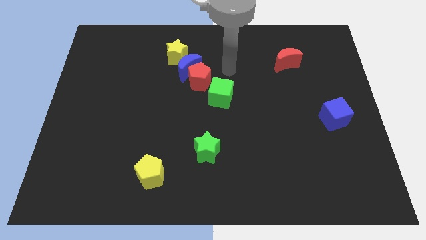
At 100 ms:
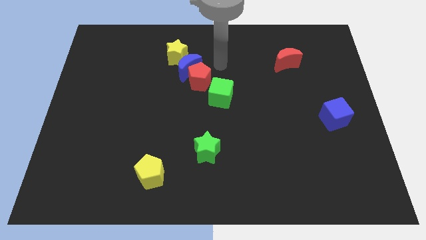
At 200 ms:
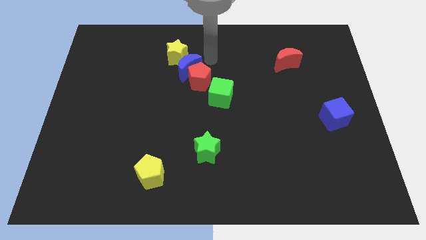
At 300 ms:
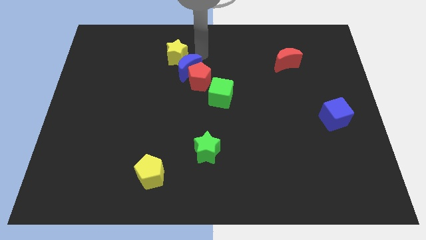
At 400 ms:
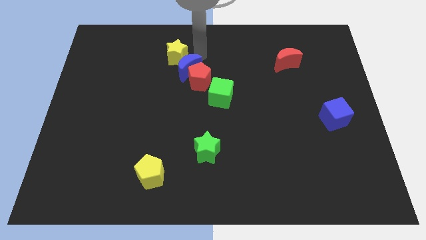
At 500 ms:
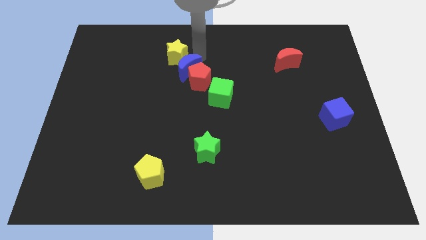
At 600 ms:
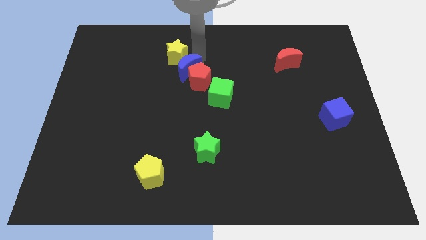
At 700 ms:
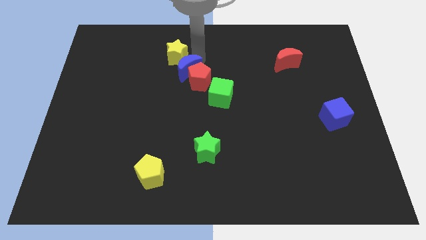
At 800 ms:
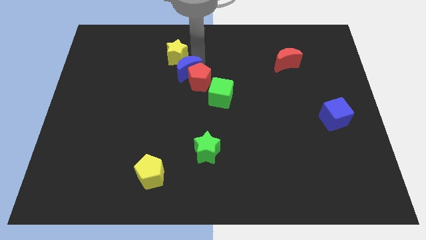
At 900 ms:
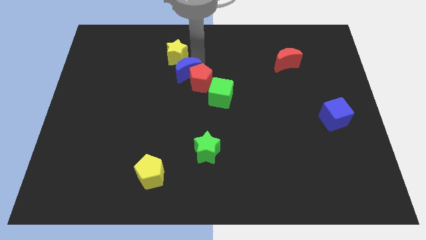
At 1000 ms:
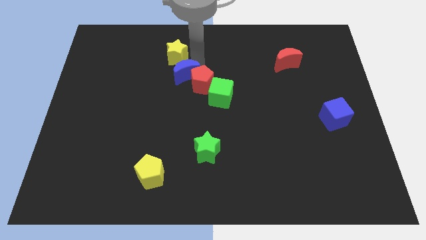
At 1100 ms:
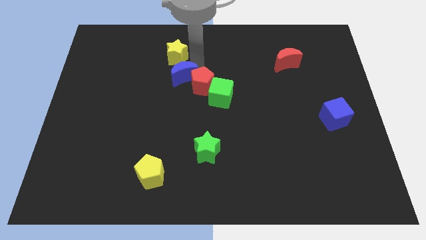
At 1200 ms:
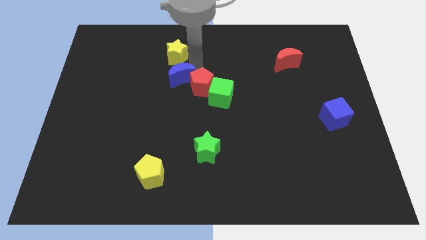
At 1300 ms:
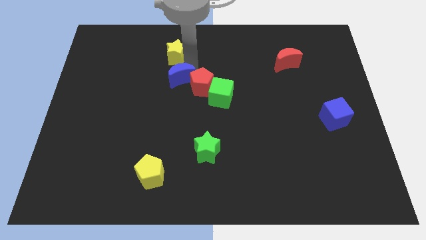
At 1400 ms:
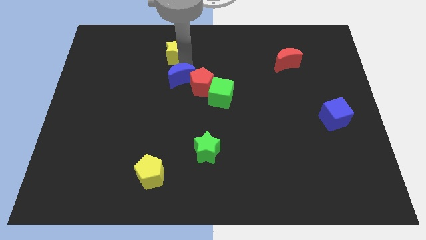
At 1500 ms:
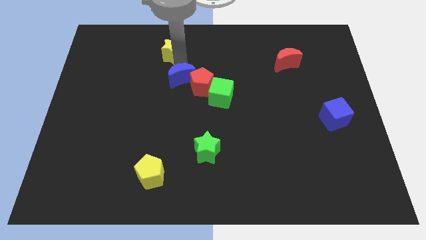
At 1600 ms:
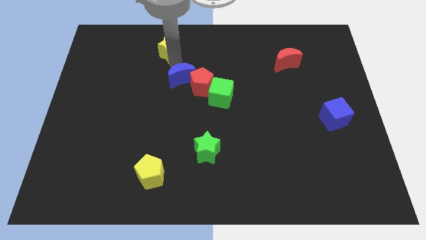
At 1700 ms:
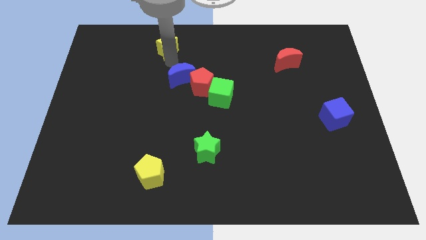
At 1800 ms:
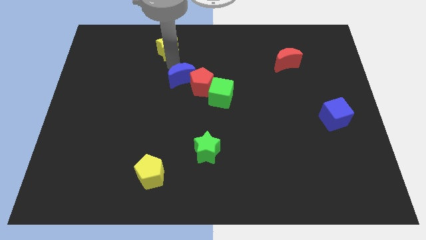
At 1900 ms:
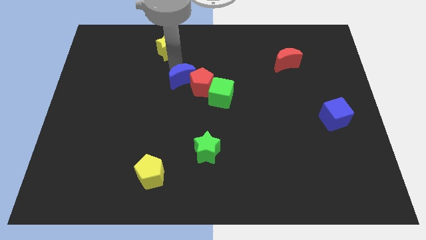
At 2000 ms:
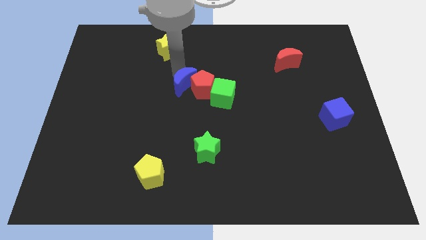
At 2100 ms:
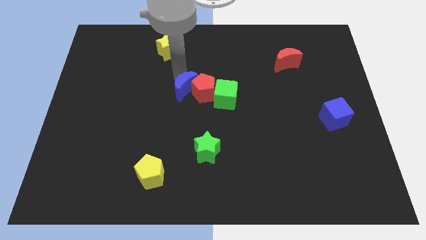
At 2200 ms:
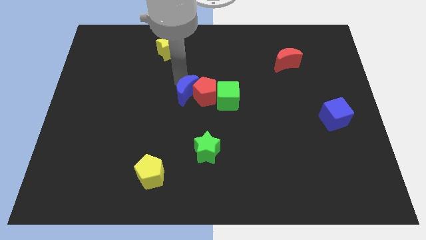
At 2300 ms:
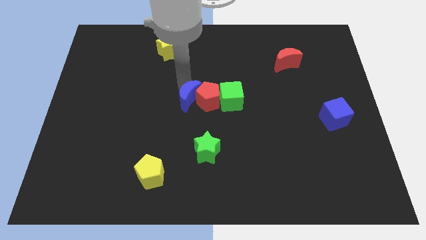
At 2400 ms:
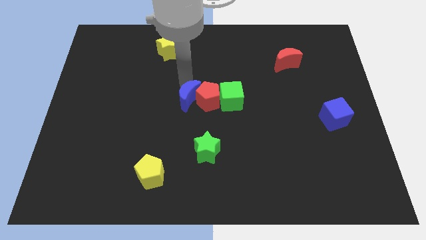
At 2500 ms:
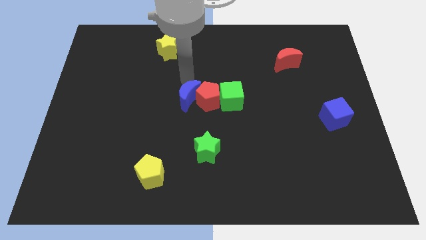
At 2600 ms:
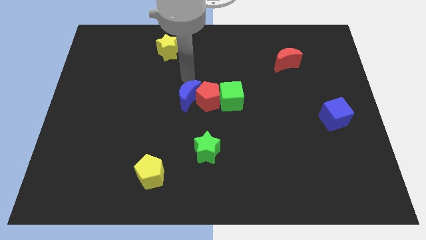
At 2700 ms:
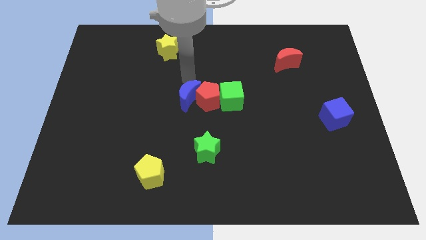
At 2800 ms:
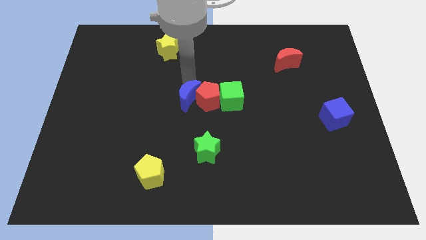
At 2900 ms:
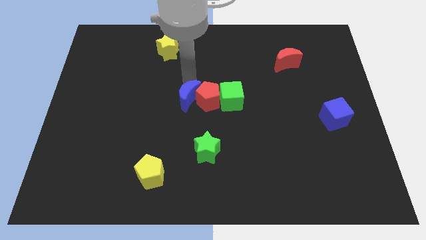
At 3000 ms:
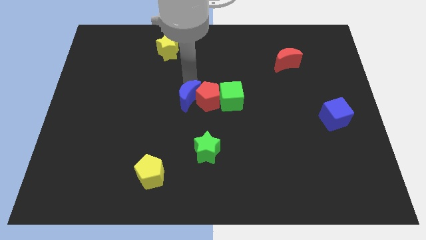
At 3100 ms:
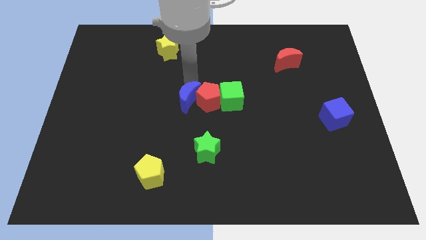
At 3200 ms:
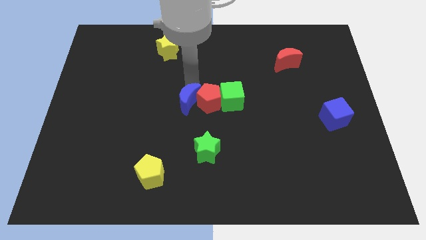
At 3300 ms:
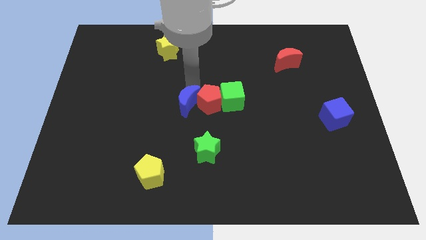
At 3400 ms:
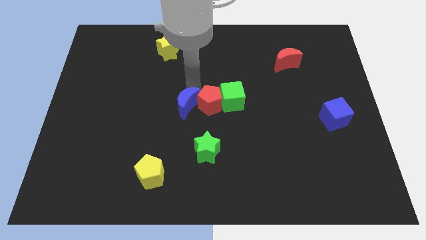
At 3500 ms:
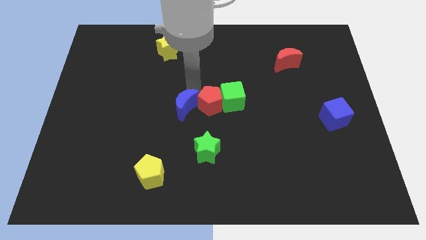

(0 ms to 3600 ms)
pull the blue moon apart from the red pentagon and yellow star

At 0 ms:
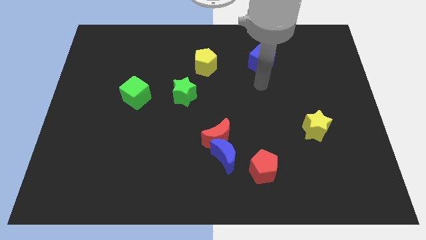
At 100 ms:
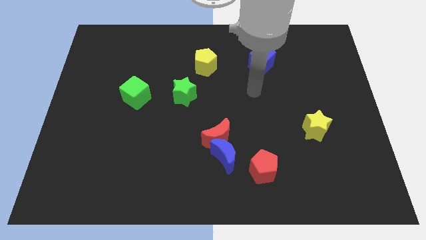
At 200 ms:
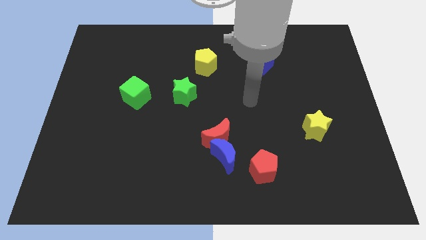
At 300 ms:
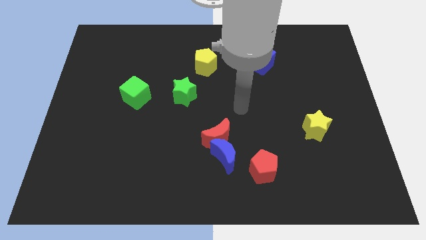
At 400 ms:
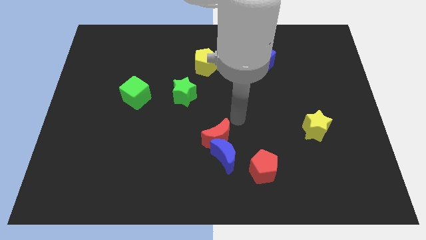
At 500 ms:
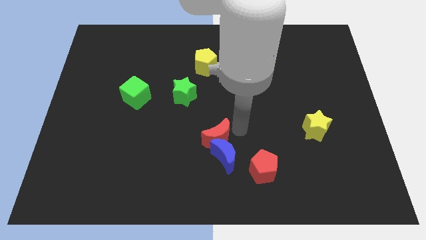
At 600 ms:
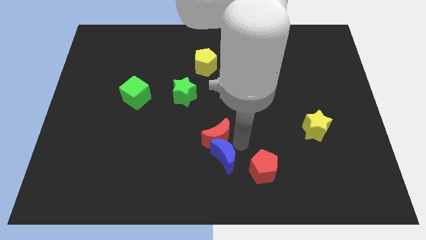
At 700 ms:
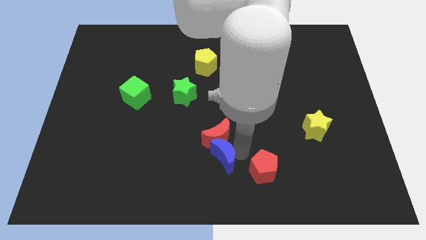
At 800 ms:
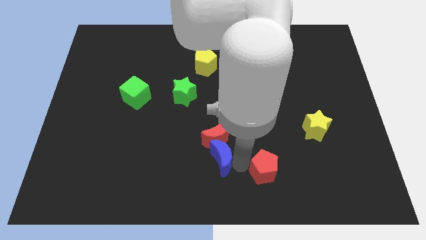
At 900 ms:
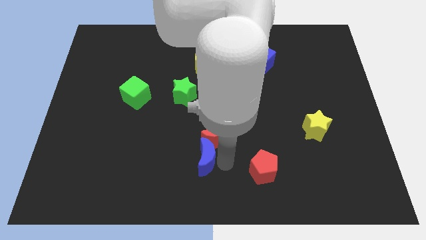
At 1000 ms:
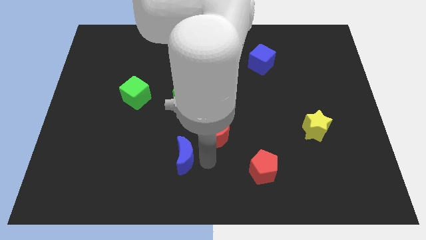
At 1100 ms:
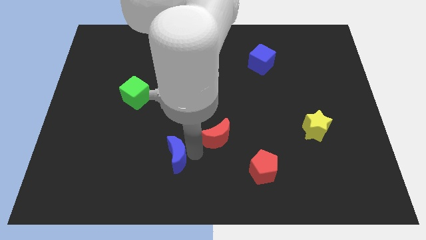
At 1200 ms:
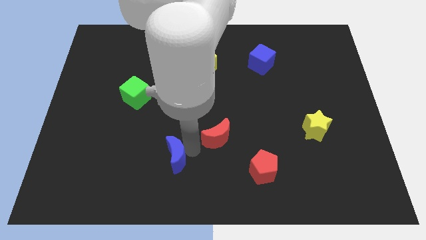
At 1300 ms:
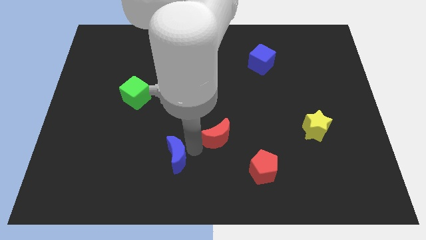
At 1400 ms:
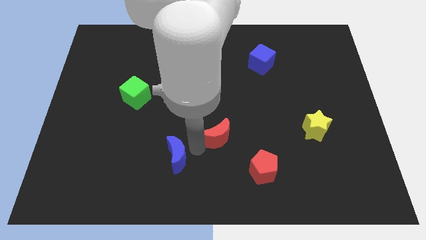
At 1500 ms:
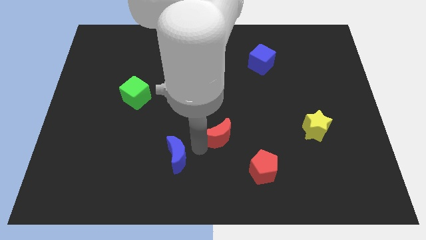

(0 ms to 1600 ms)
move the red moon away from the blue moon

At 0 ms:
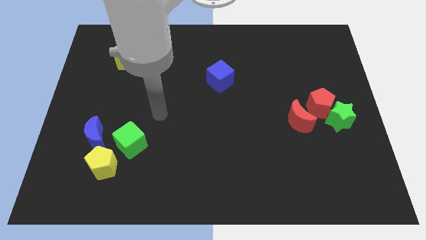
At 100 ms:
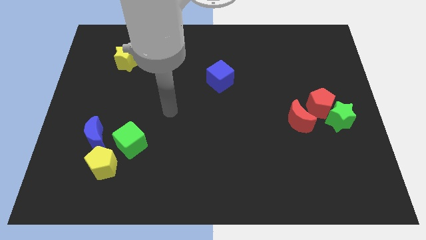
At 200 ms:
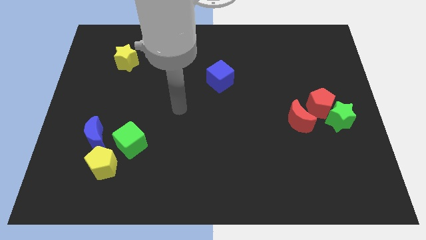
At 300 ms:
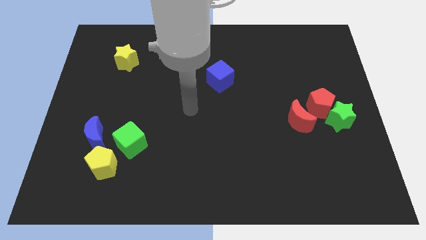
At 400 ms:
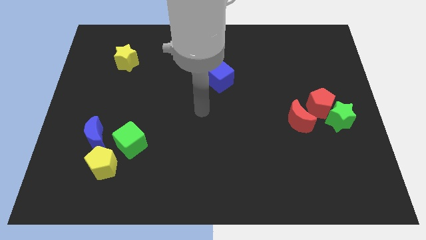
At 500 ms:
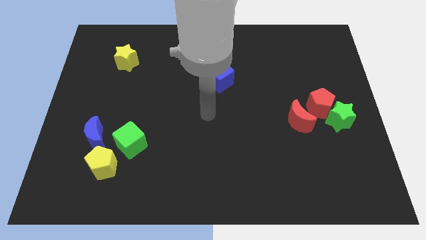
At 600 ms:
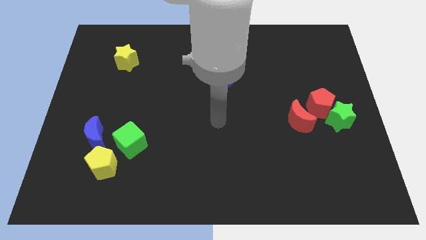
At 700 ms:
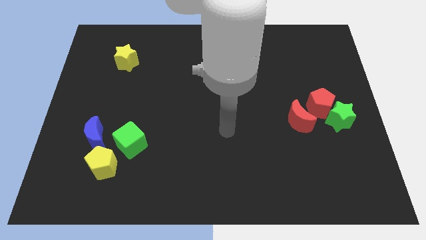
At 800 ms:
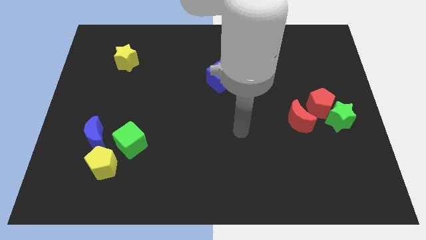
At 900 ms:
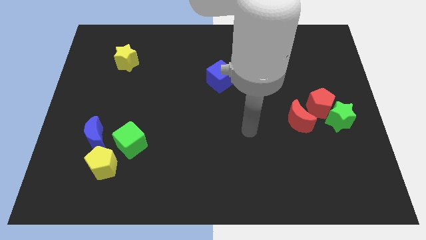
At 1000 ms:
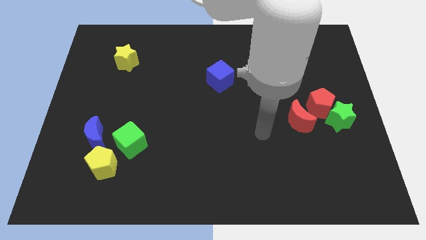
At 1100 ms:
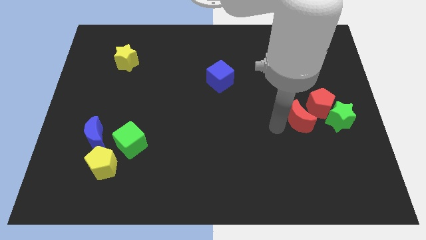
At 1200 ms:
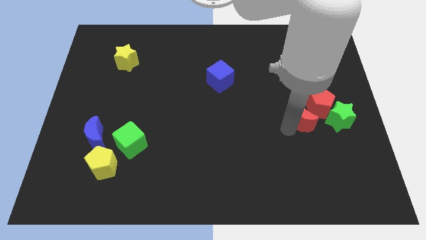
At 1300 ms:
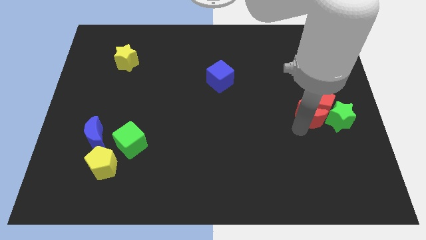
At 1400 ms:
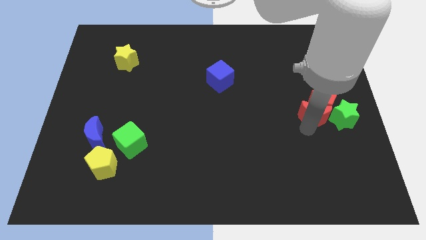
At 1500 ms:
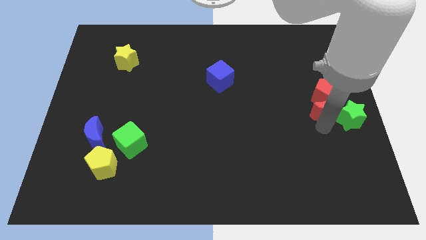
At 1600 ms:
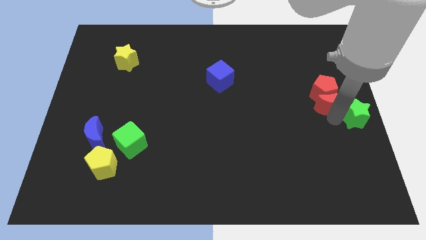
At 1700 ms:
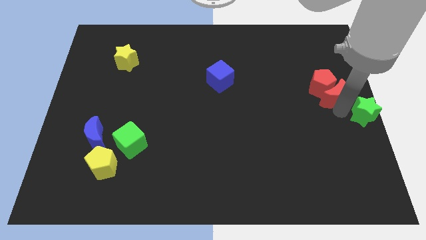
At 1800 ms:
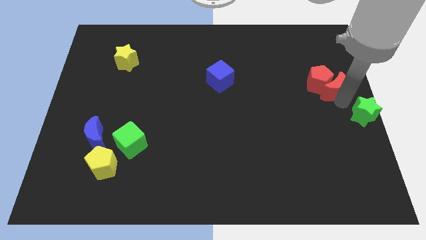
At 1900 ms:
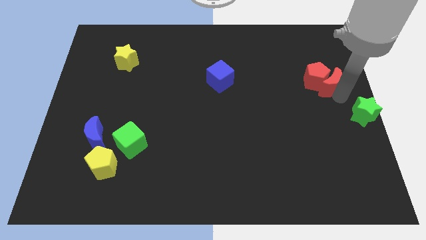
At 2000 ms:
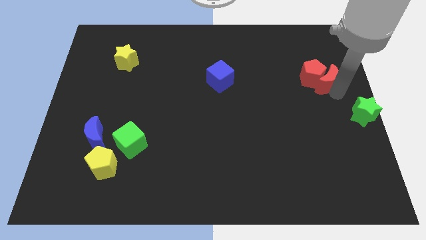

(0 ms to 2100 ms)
move the red pentagon away from the green star and red moon

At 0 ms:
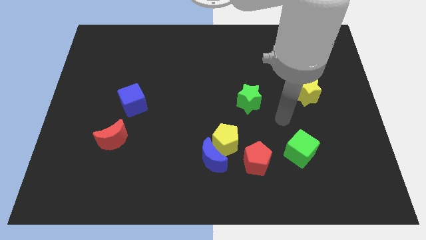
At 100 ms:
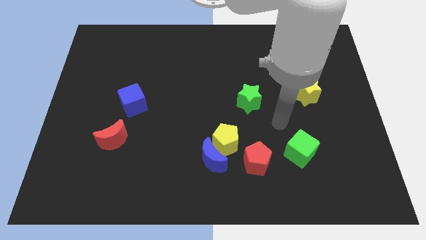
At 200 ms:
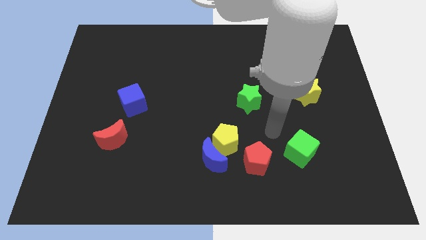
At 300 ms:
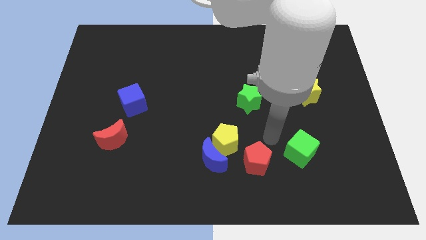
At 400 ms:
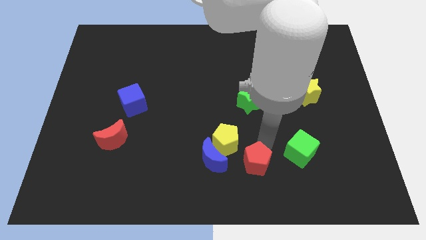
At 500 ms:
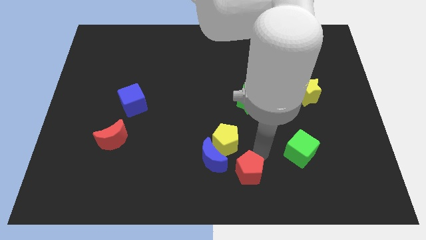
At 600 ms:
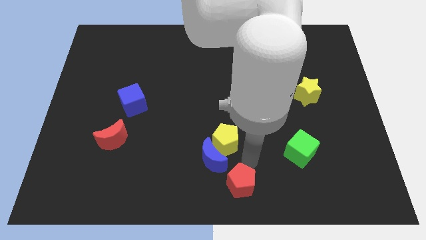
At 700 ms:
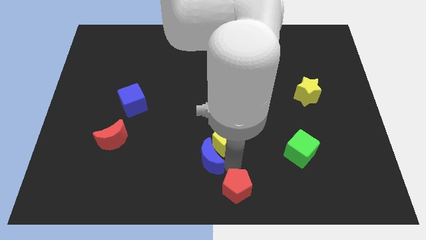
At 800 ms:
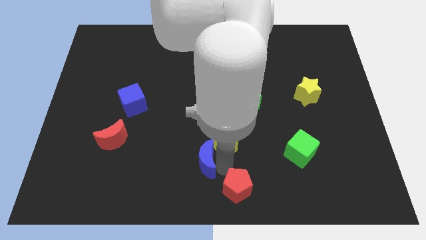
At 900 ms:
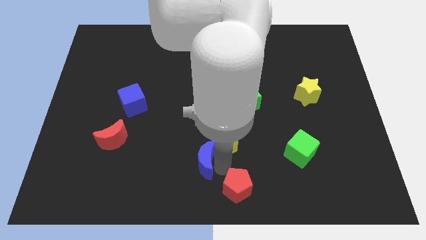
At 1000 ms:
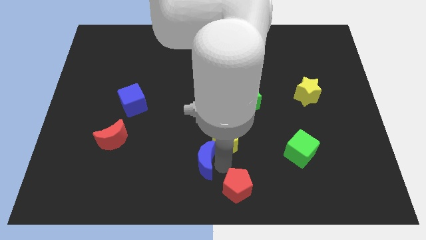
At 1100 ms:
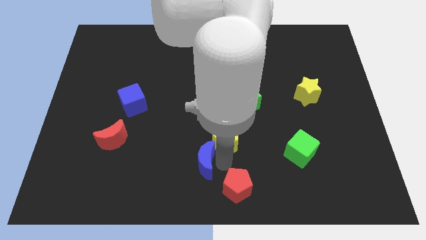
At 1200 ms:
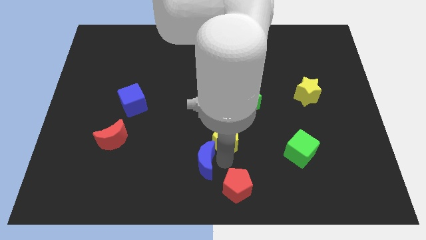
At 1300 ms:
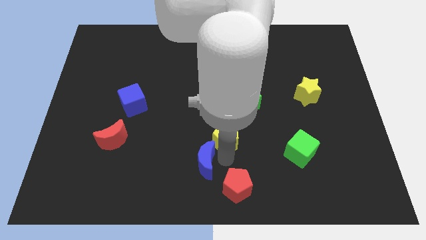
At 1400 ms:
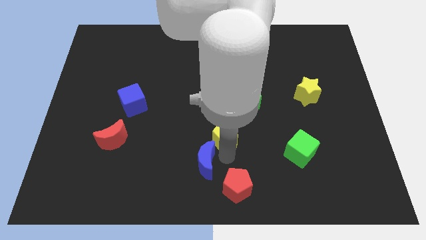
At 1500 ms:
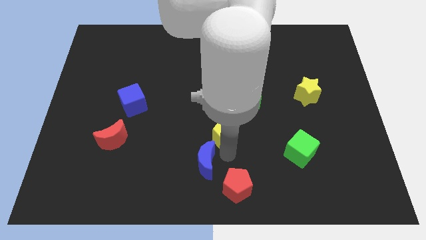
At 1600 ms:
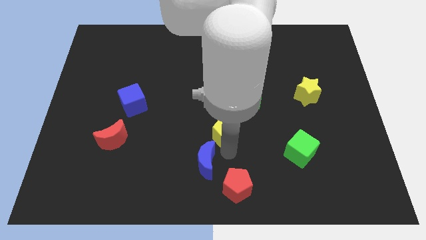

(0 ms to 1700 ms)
separate the yellow pentagon from the blue moon and red pentagon

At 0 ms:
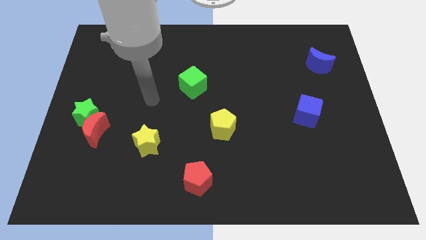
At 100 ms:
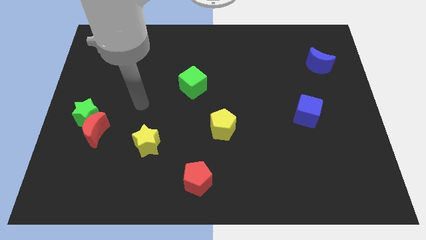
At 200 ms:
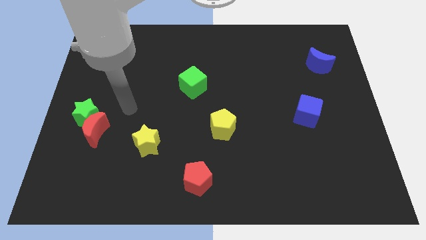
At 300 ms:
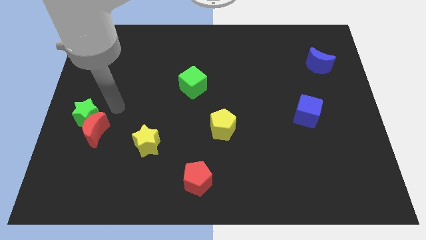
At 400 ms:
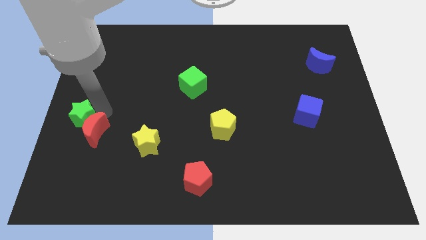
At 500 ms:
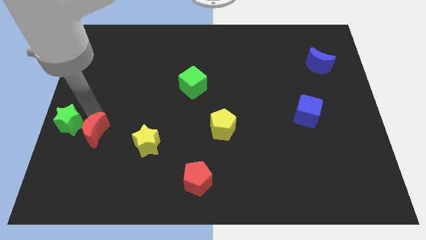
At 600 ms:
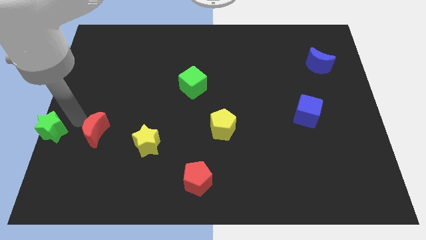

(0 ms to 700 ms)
separate the red moon from the green star
